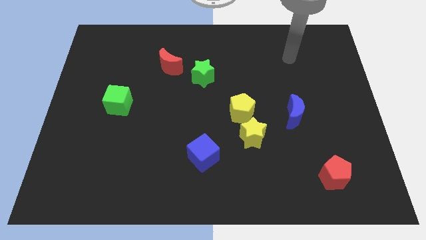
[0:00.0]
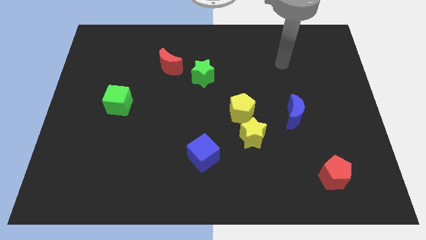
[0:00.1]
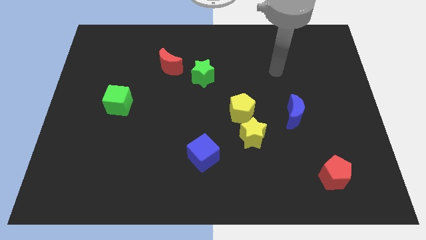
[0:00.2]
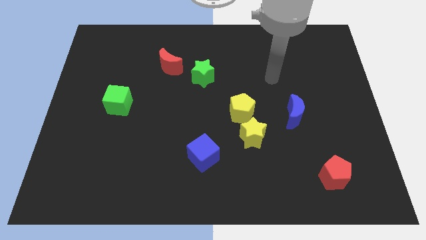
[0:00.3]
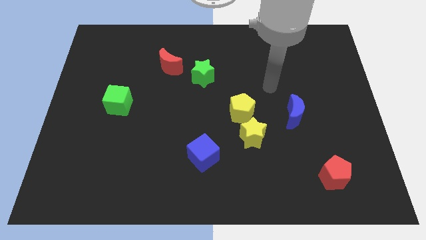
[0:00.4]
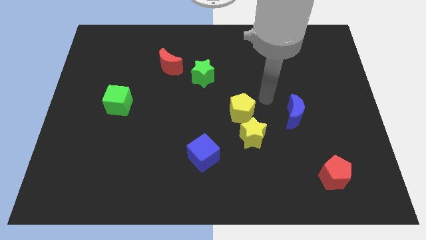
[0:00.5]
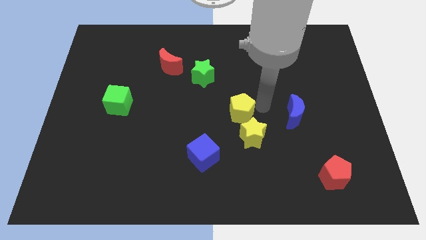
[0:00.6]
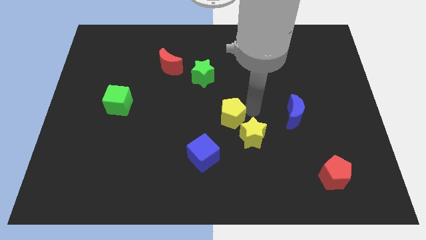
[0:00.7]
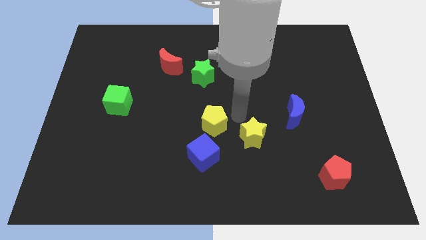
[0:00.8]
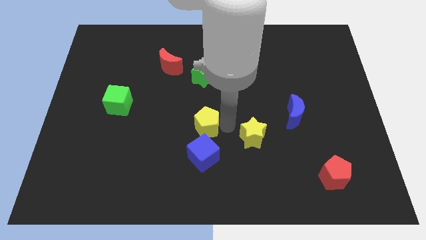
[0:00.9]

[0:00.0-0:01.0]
separate the yellow star from the yellow pentagon

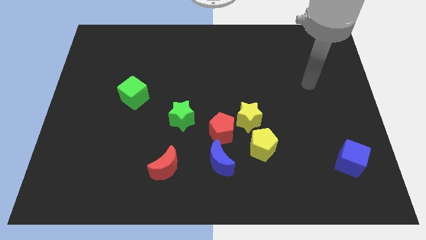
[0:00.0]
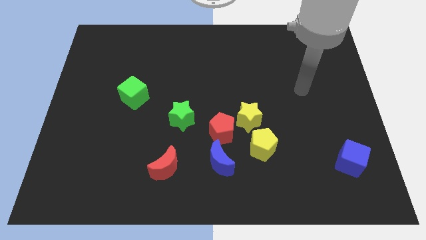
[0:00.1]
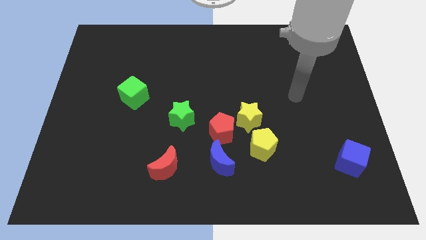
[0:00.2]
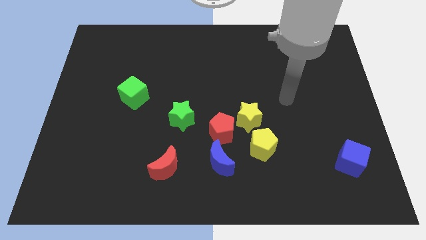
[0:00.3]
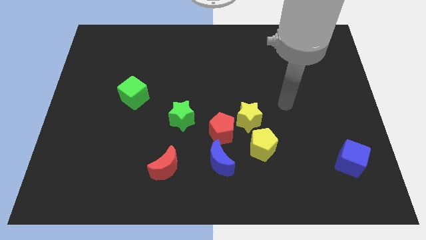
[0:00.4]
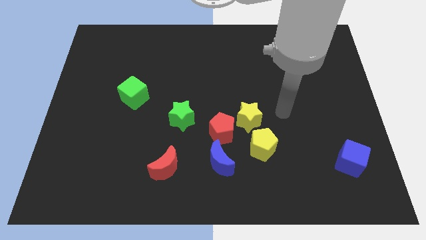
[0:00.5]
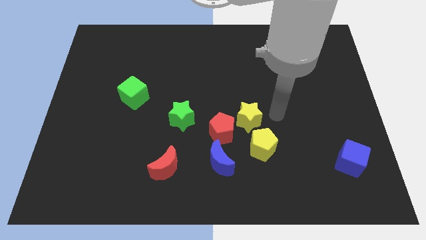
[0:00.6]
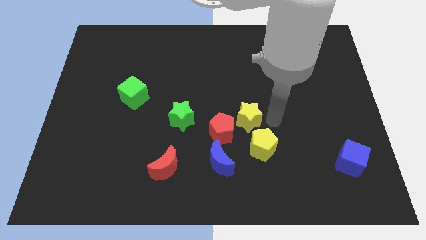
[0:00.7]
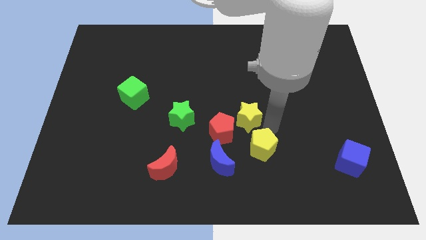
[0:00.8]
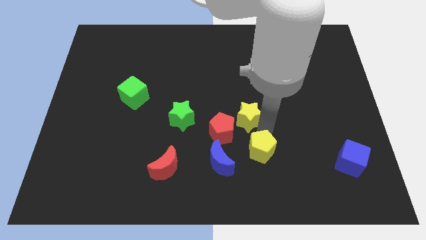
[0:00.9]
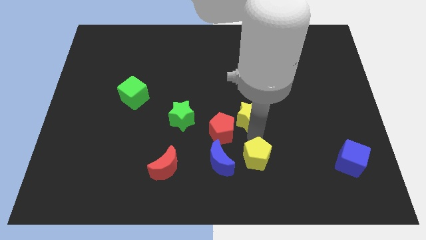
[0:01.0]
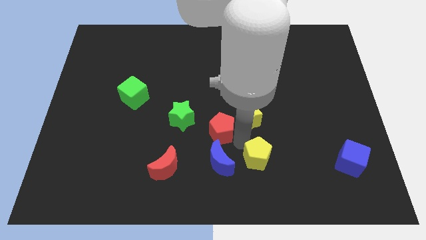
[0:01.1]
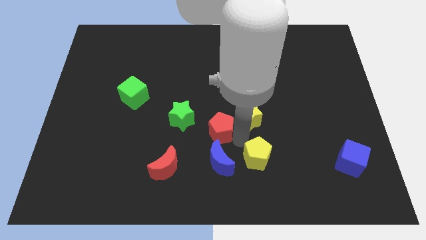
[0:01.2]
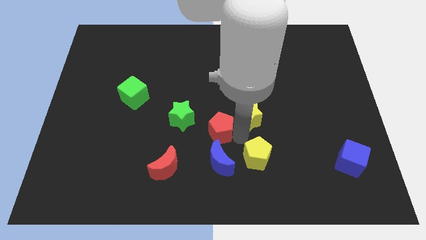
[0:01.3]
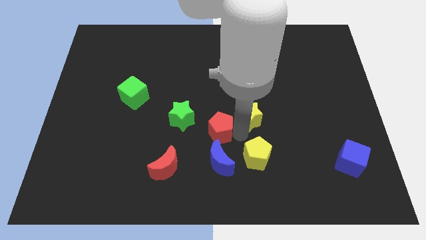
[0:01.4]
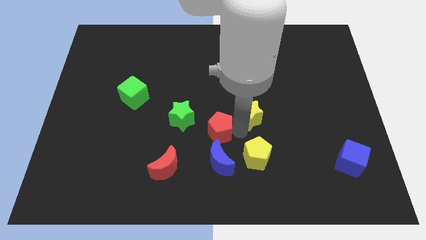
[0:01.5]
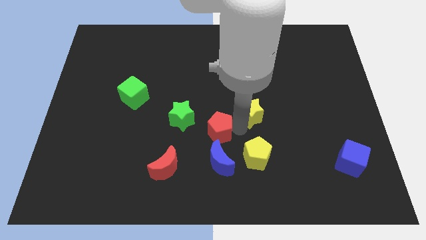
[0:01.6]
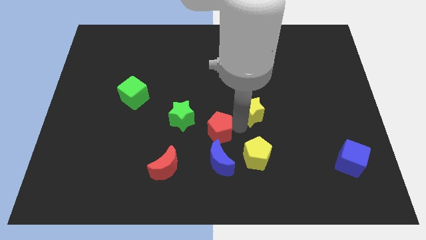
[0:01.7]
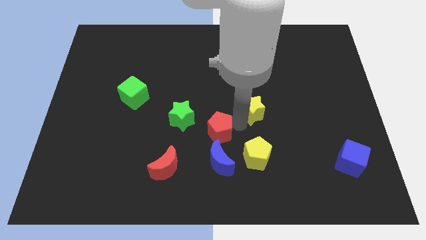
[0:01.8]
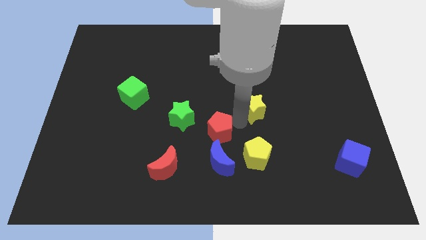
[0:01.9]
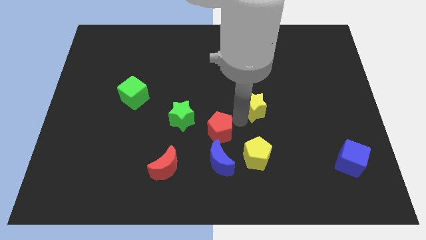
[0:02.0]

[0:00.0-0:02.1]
pull the yellow star apart from the red pentagon and yellow pentagon

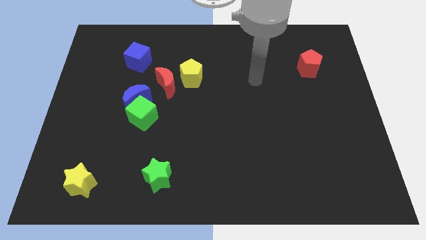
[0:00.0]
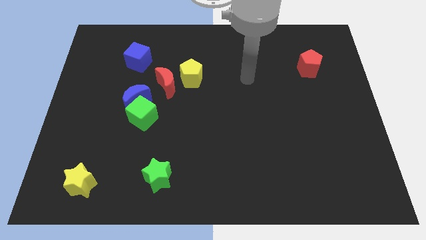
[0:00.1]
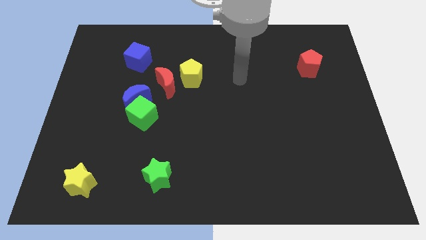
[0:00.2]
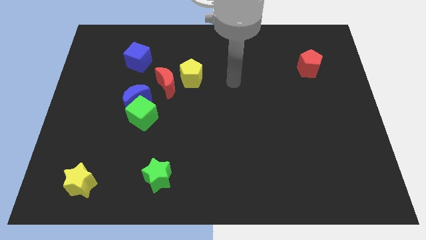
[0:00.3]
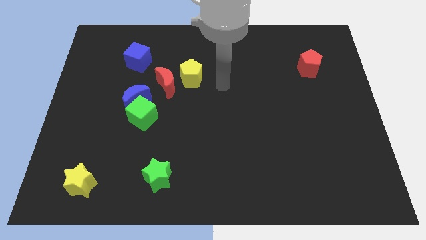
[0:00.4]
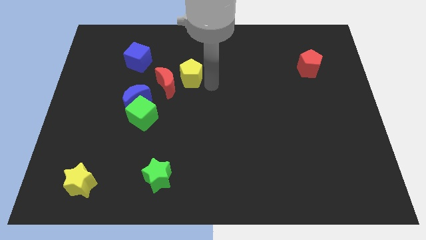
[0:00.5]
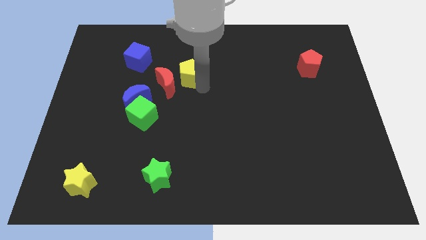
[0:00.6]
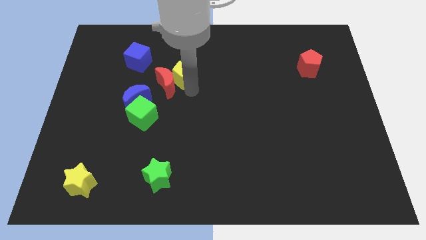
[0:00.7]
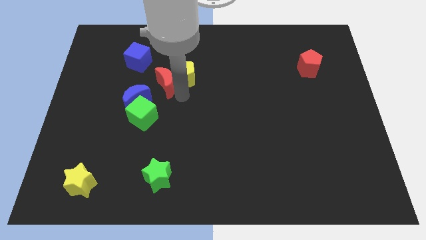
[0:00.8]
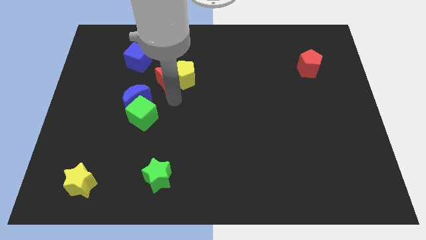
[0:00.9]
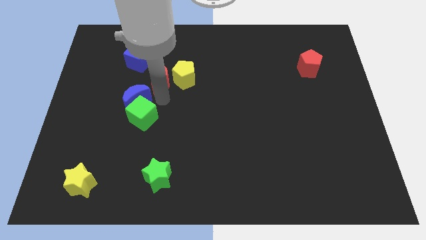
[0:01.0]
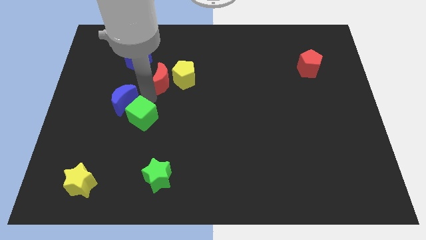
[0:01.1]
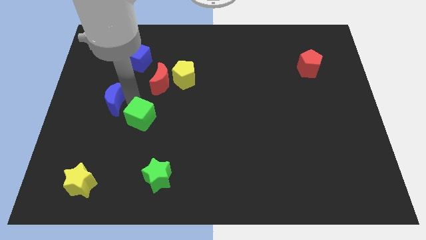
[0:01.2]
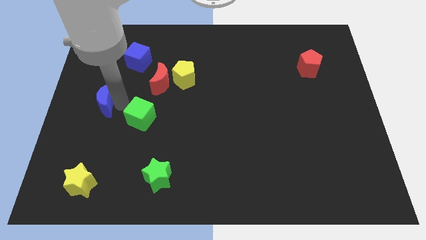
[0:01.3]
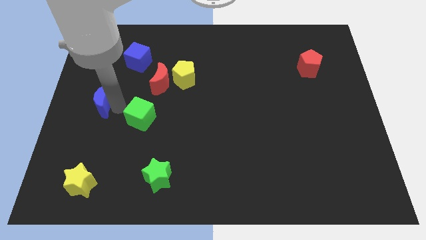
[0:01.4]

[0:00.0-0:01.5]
pull the green cube apart from the blue moon

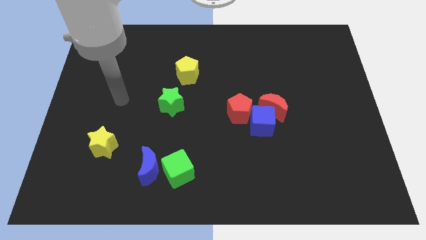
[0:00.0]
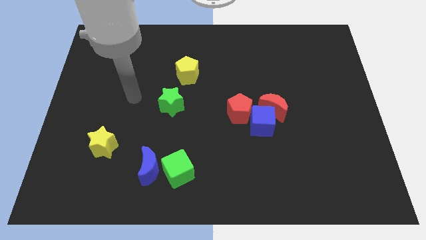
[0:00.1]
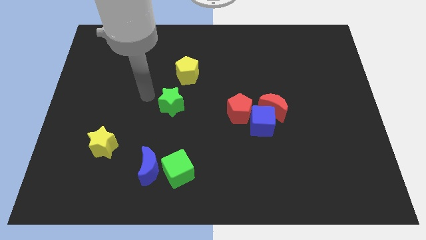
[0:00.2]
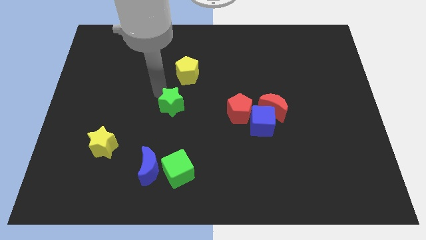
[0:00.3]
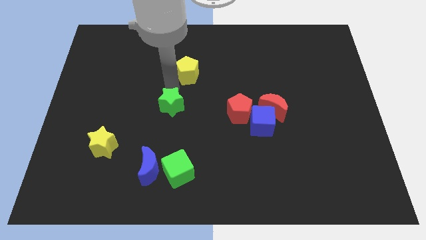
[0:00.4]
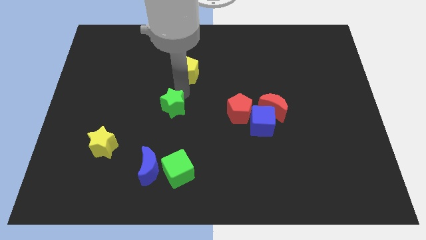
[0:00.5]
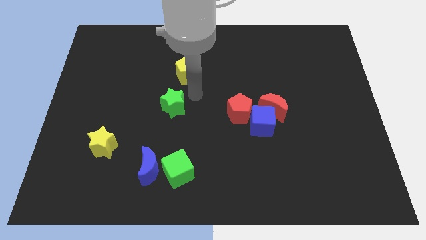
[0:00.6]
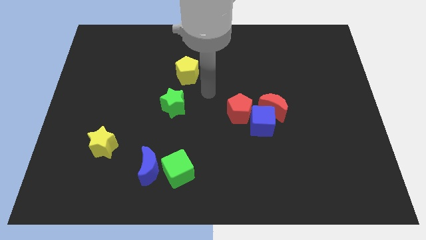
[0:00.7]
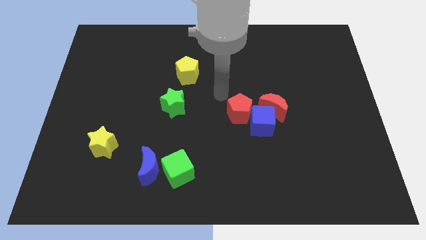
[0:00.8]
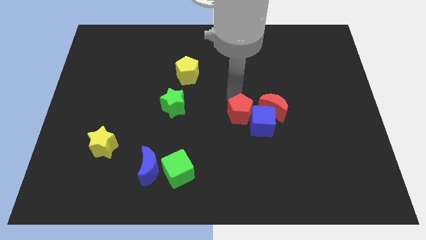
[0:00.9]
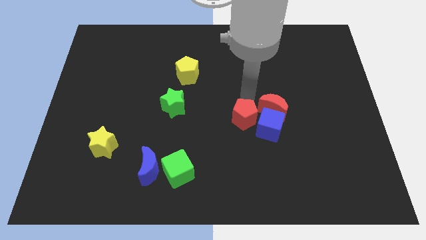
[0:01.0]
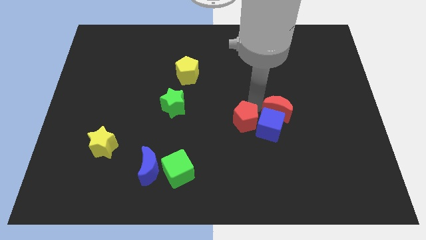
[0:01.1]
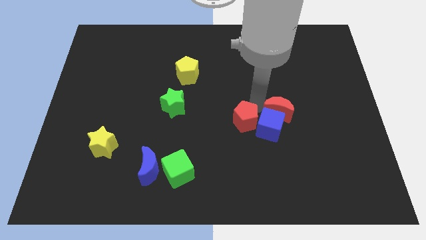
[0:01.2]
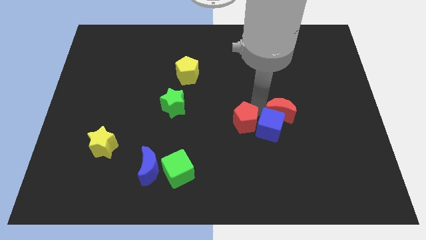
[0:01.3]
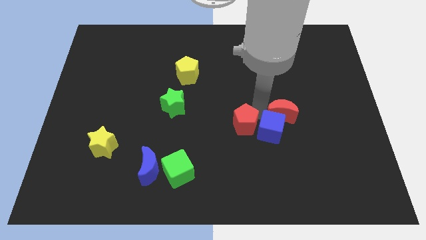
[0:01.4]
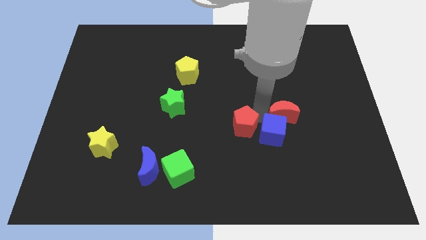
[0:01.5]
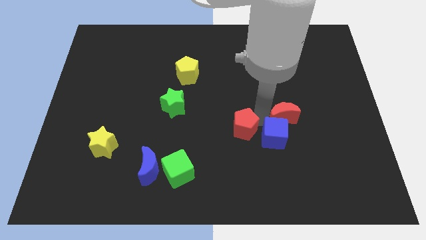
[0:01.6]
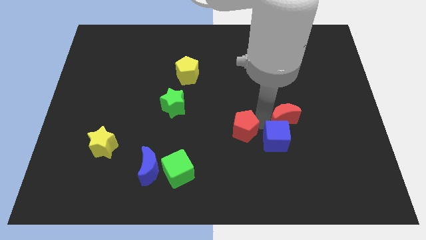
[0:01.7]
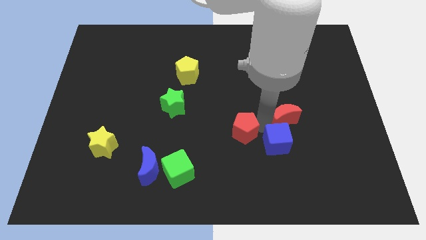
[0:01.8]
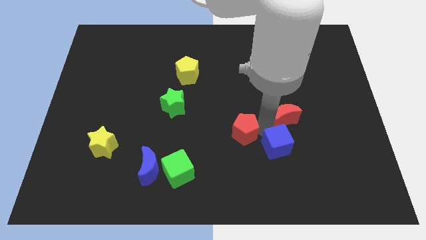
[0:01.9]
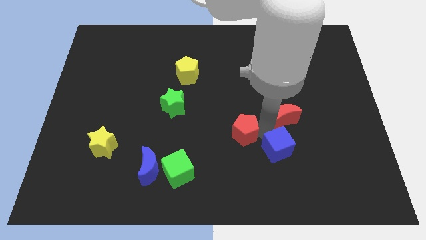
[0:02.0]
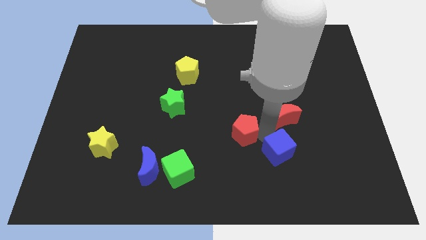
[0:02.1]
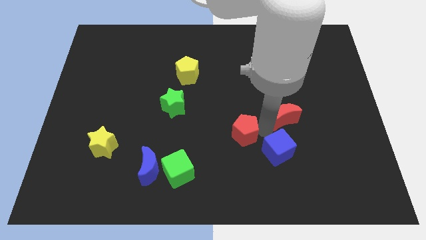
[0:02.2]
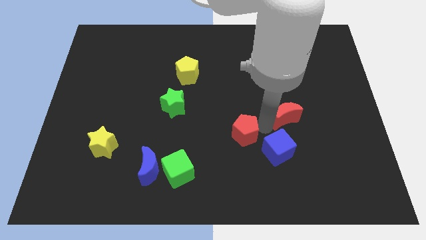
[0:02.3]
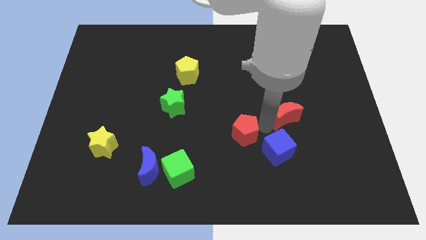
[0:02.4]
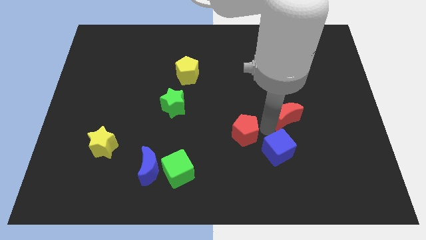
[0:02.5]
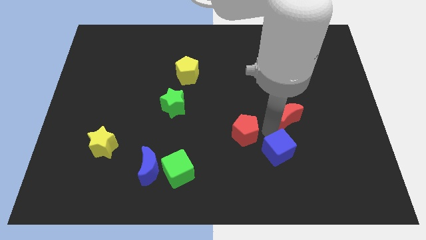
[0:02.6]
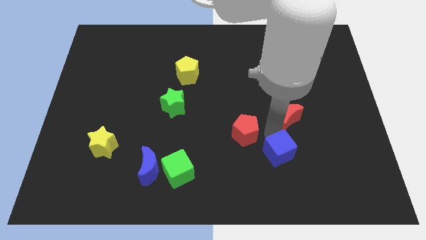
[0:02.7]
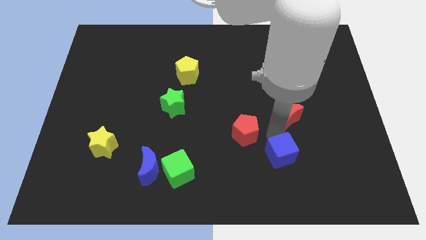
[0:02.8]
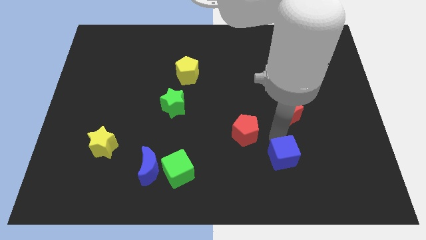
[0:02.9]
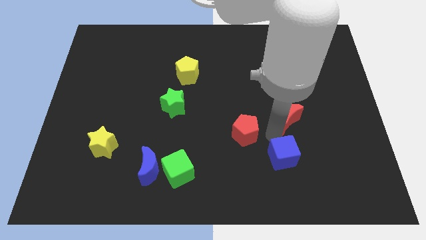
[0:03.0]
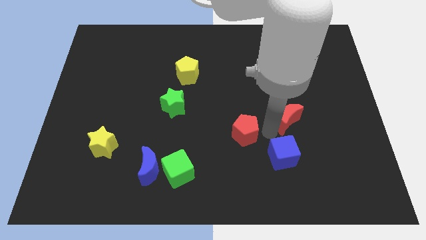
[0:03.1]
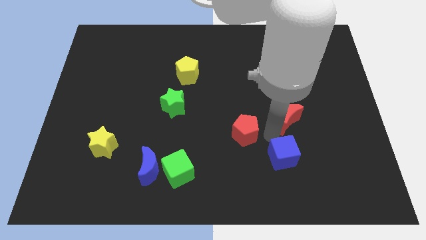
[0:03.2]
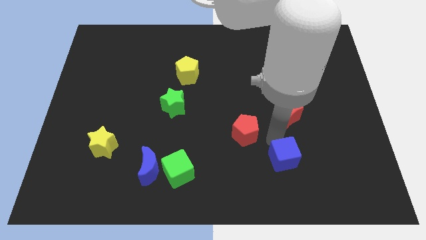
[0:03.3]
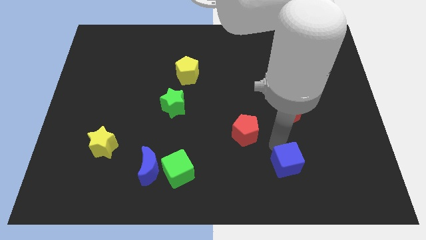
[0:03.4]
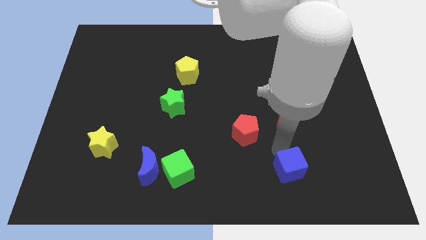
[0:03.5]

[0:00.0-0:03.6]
pull the blue cube apart from the red moon and red pentagon

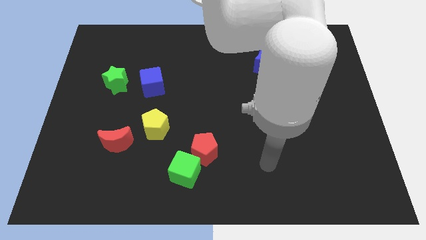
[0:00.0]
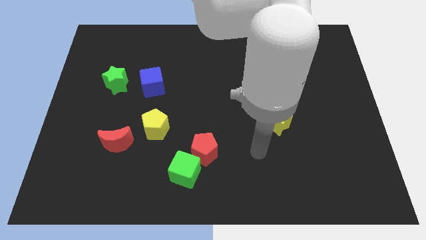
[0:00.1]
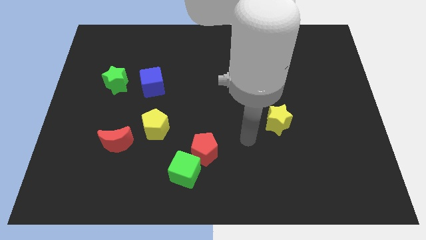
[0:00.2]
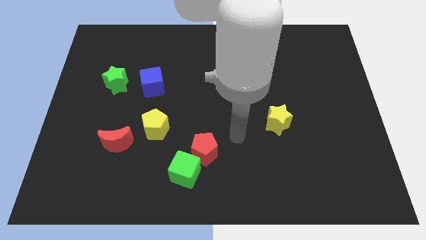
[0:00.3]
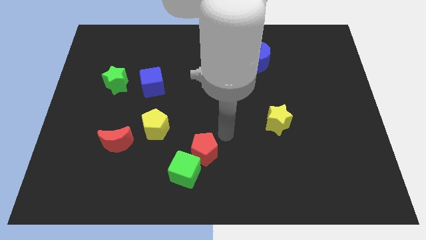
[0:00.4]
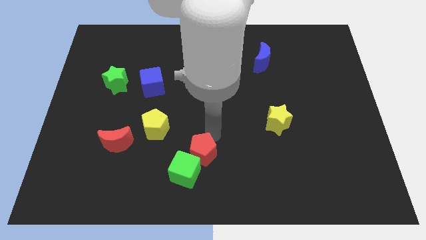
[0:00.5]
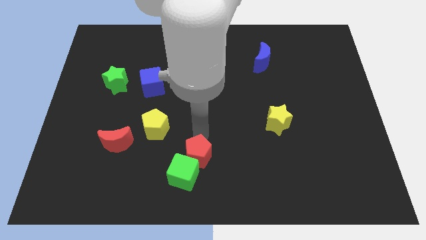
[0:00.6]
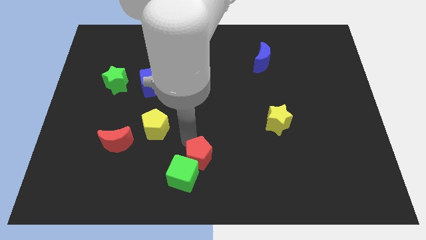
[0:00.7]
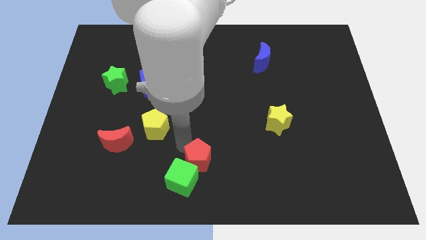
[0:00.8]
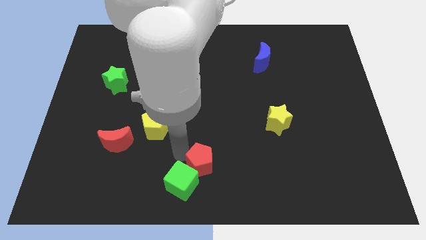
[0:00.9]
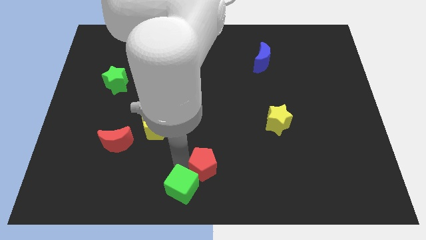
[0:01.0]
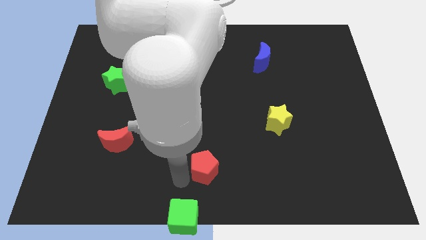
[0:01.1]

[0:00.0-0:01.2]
pull the red pentagon apart from the green cube
